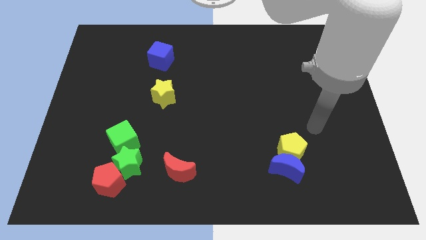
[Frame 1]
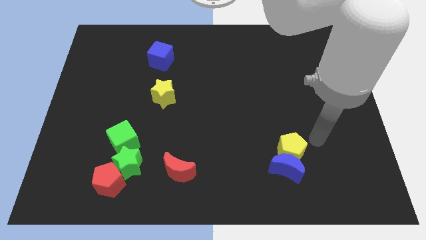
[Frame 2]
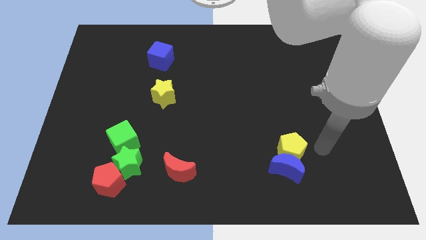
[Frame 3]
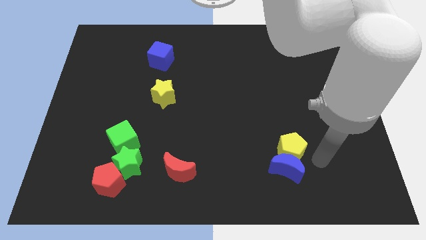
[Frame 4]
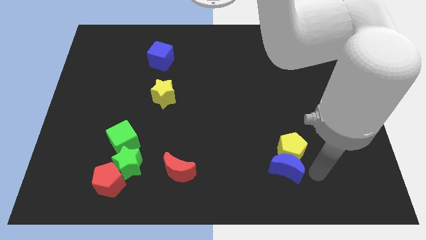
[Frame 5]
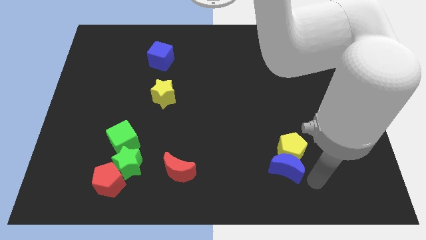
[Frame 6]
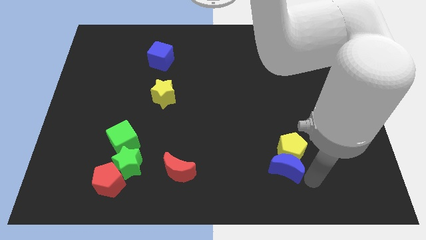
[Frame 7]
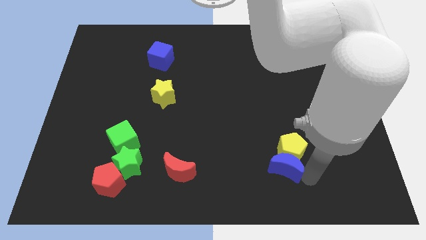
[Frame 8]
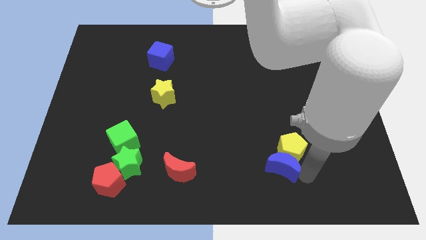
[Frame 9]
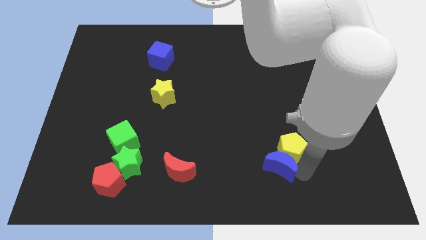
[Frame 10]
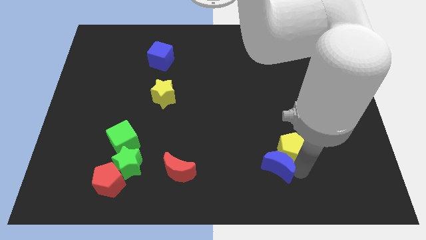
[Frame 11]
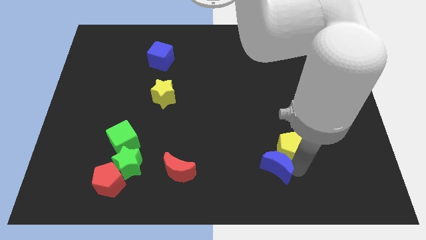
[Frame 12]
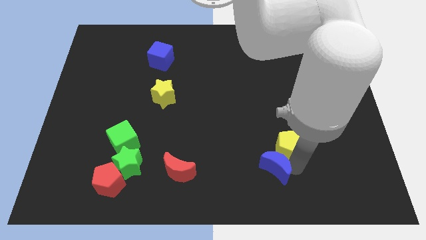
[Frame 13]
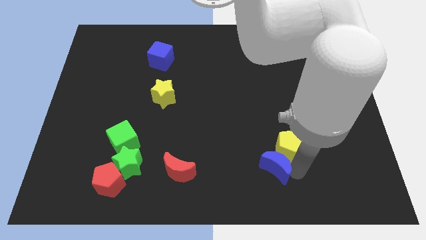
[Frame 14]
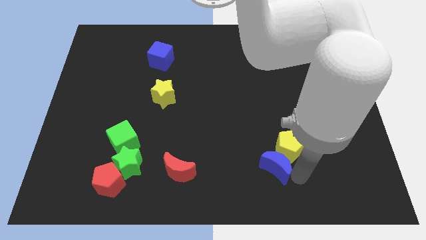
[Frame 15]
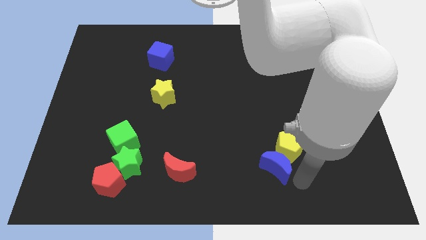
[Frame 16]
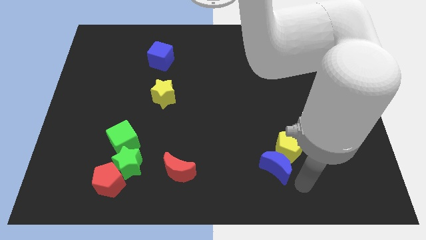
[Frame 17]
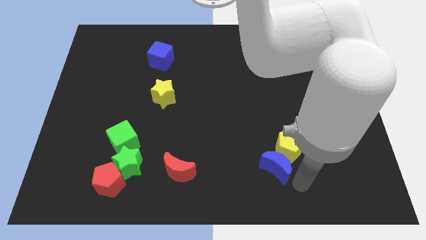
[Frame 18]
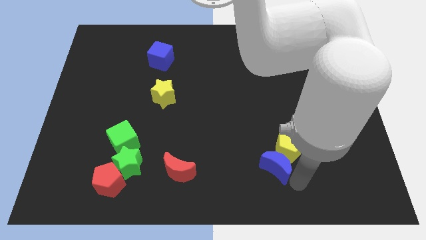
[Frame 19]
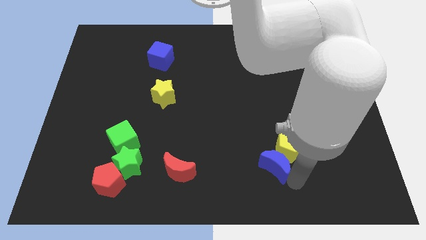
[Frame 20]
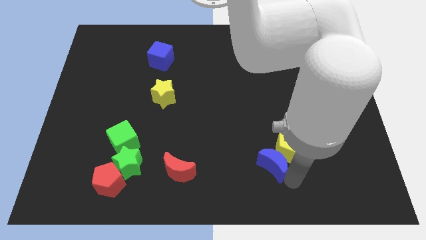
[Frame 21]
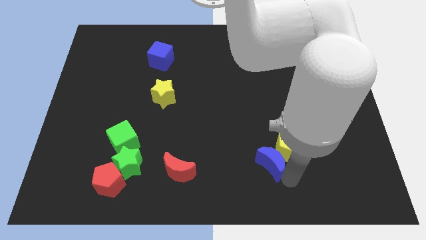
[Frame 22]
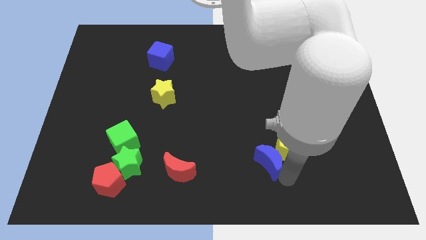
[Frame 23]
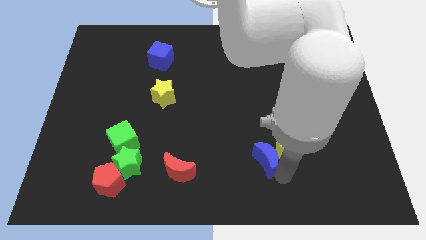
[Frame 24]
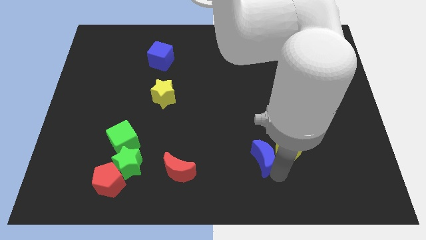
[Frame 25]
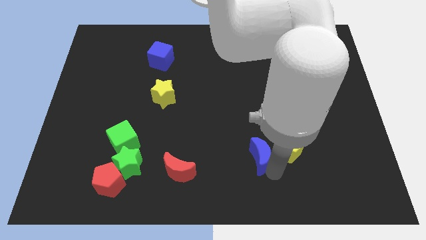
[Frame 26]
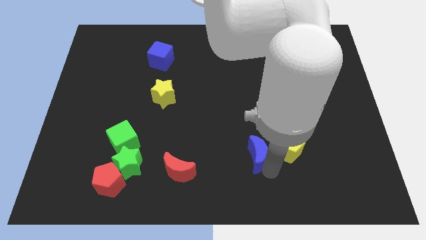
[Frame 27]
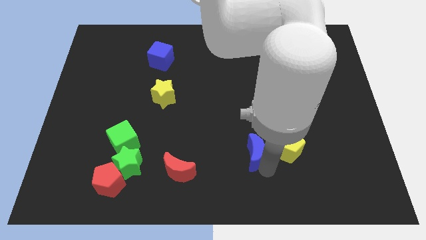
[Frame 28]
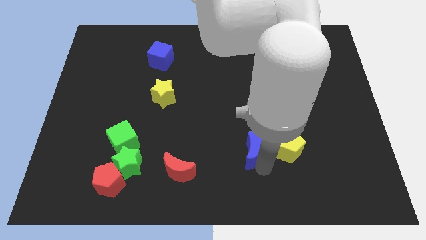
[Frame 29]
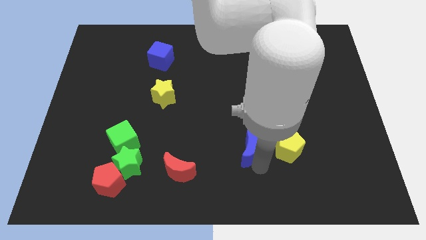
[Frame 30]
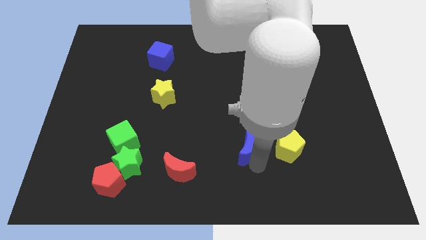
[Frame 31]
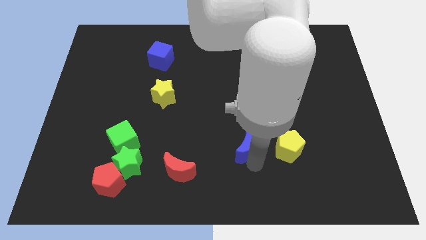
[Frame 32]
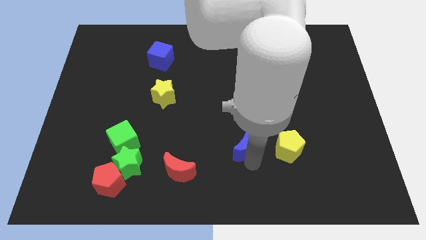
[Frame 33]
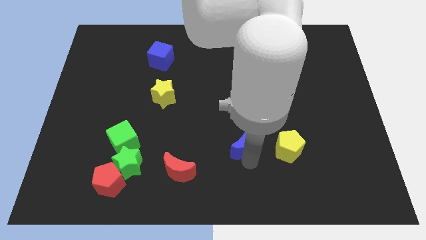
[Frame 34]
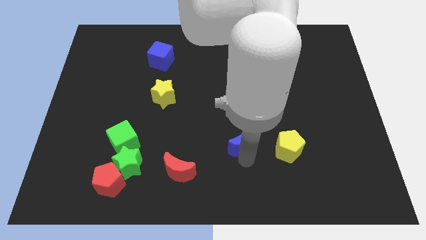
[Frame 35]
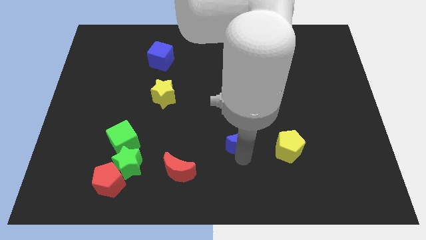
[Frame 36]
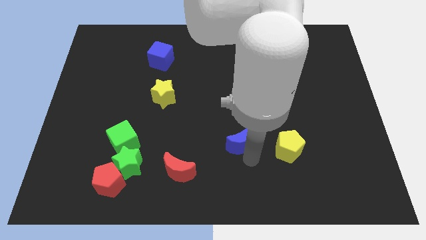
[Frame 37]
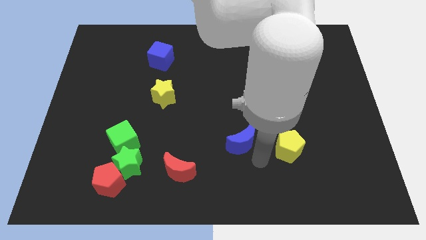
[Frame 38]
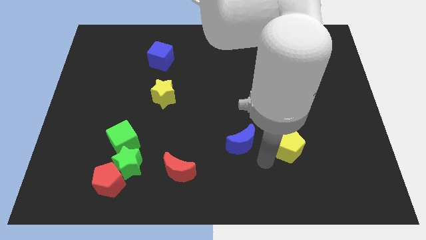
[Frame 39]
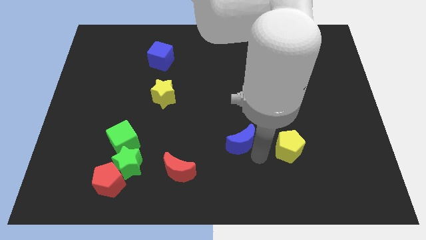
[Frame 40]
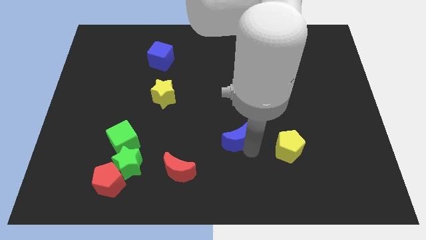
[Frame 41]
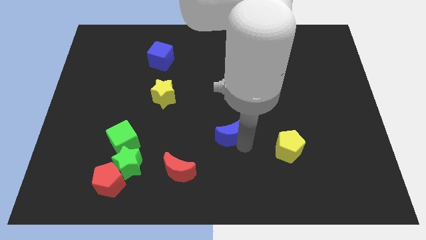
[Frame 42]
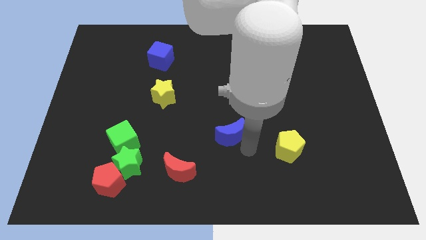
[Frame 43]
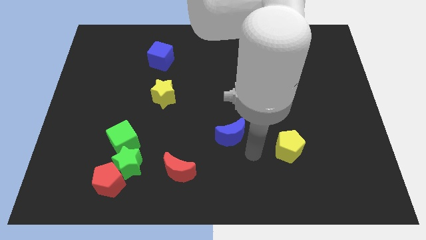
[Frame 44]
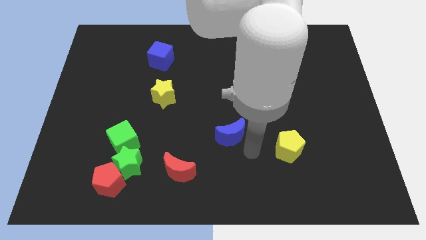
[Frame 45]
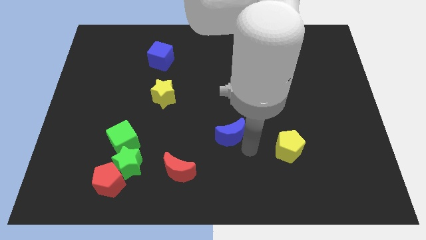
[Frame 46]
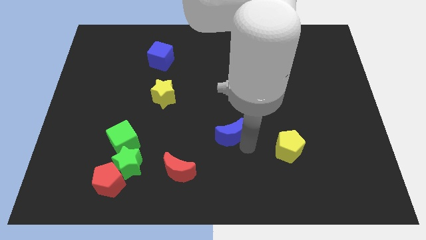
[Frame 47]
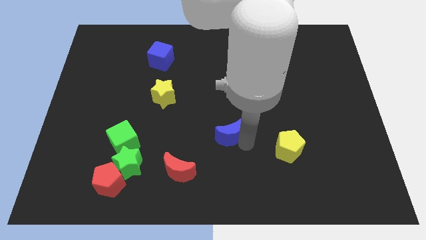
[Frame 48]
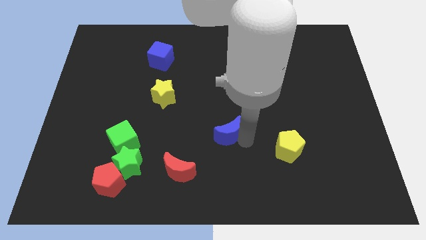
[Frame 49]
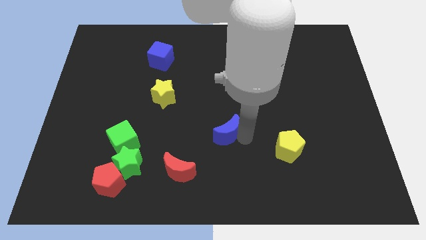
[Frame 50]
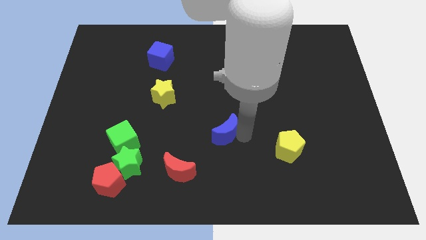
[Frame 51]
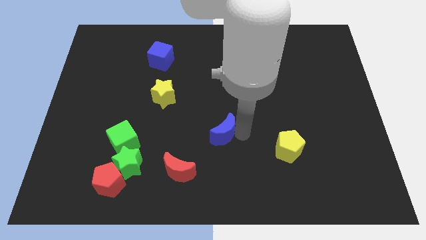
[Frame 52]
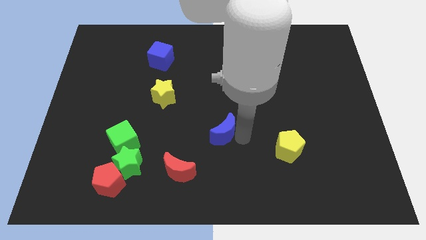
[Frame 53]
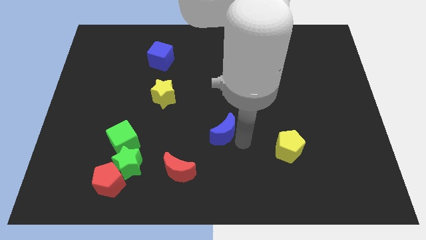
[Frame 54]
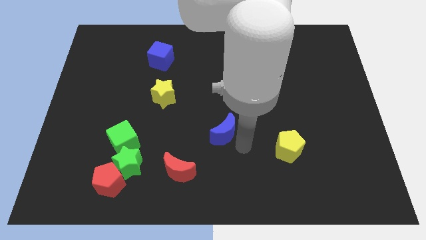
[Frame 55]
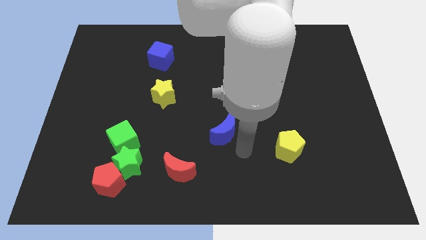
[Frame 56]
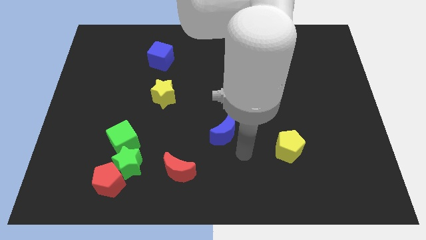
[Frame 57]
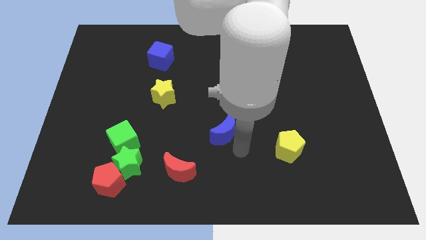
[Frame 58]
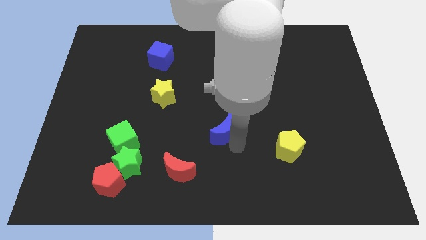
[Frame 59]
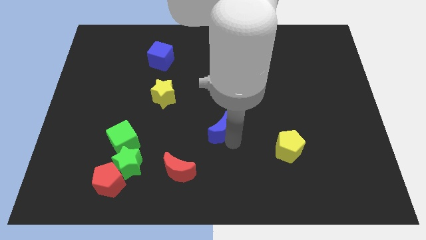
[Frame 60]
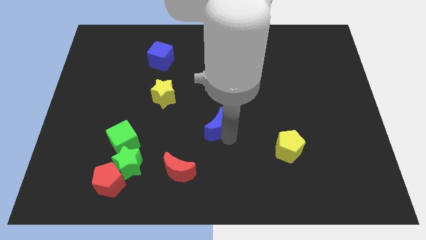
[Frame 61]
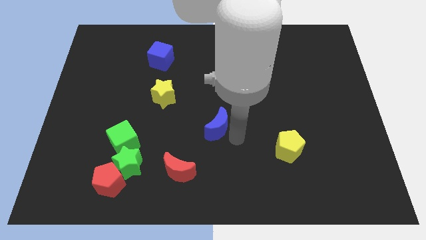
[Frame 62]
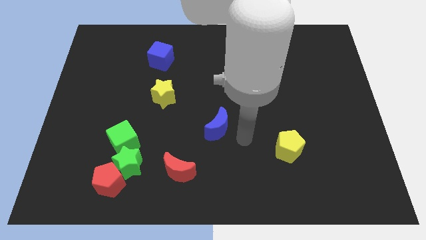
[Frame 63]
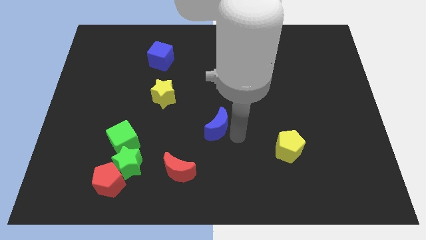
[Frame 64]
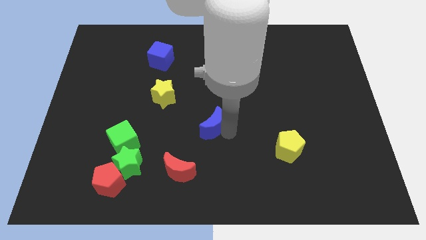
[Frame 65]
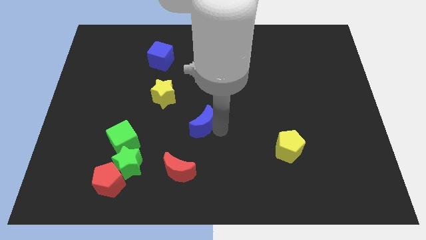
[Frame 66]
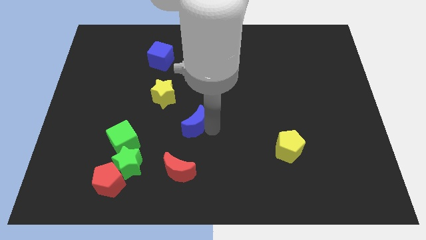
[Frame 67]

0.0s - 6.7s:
push the blue moon to the bottom right side of the yellow star
